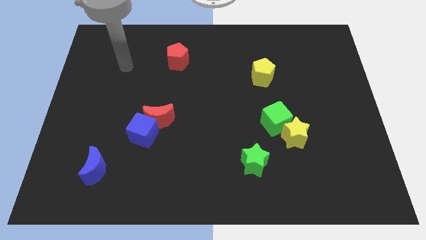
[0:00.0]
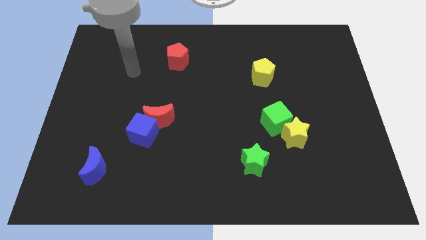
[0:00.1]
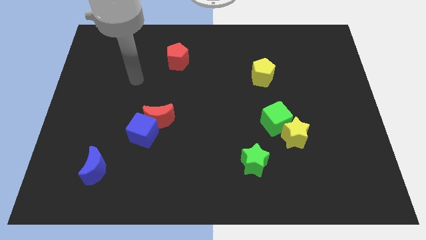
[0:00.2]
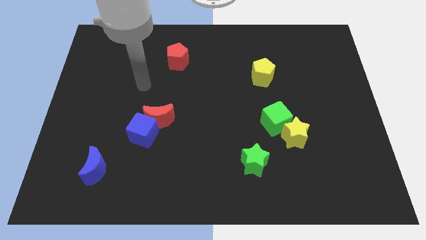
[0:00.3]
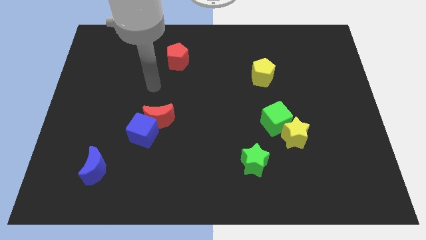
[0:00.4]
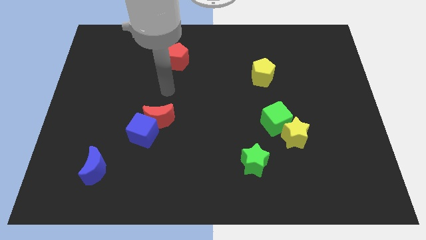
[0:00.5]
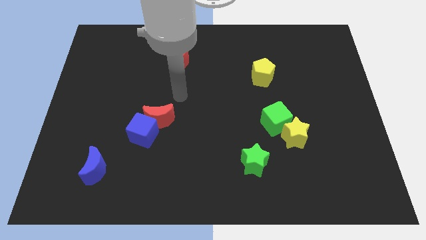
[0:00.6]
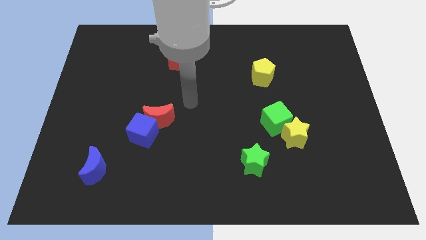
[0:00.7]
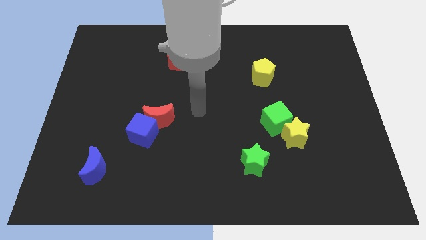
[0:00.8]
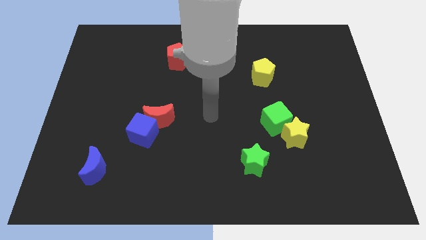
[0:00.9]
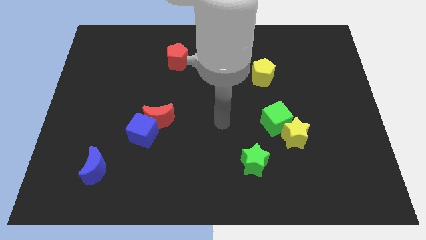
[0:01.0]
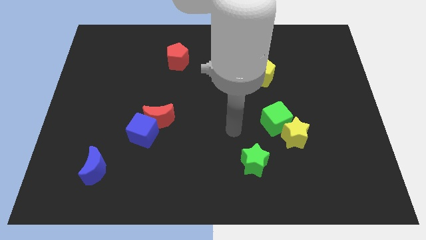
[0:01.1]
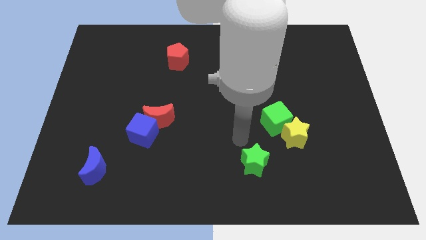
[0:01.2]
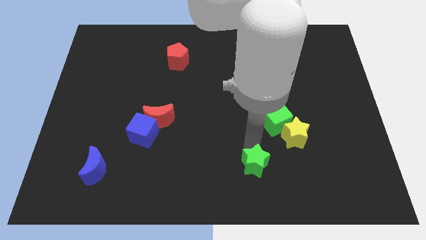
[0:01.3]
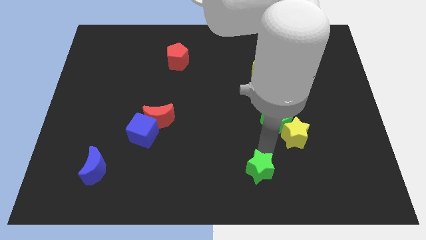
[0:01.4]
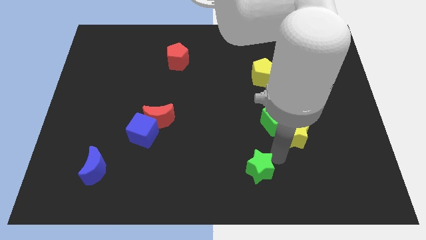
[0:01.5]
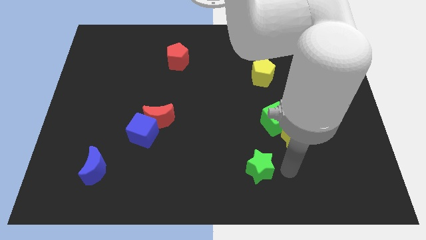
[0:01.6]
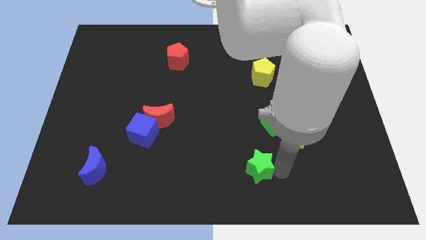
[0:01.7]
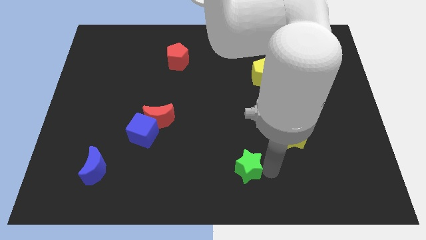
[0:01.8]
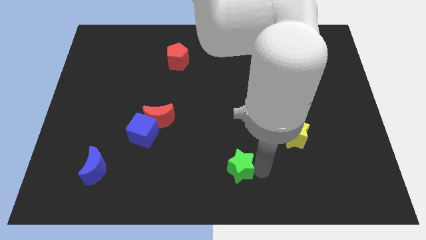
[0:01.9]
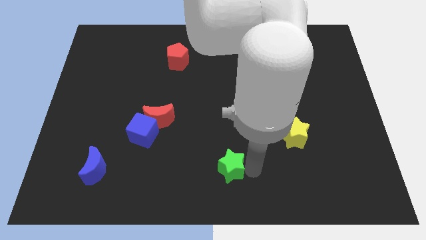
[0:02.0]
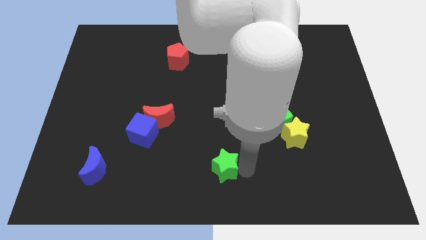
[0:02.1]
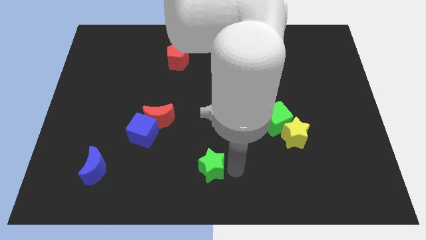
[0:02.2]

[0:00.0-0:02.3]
push the green star to the left a bit

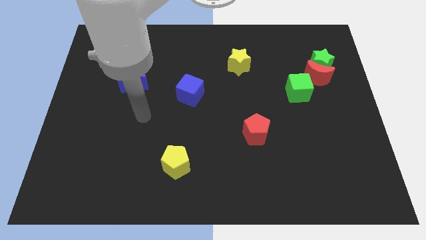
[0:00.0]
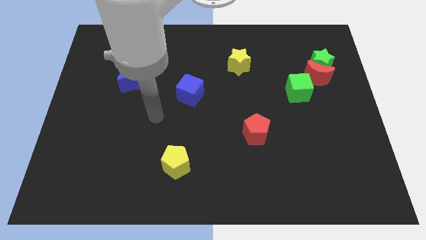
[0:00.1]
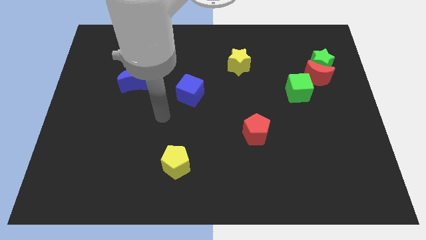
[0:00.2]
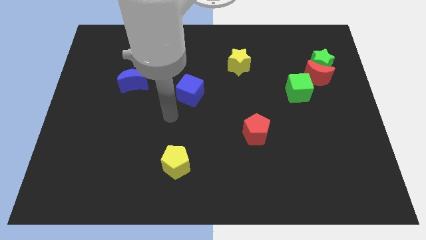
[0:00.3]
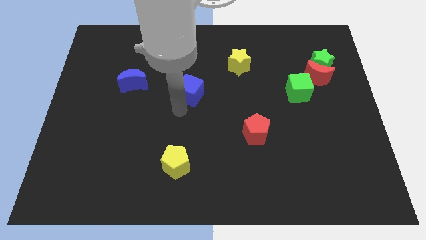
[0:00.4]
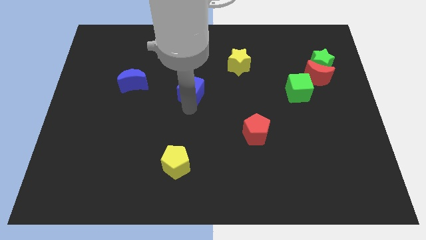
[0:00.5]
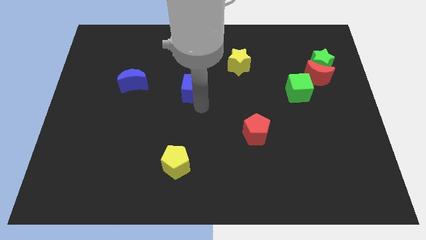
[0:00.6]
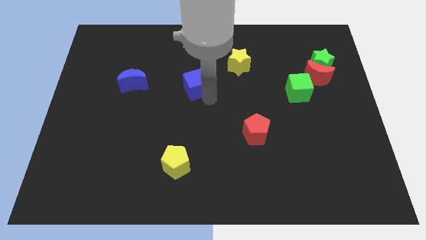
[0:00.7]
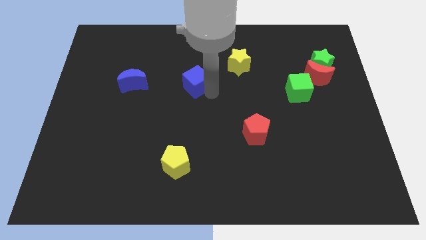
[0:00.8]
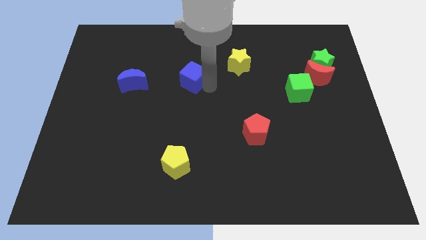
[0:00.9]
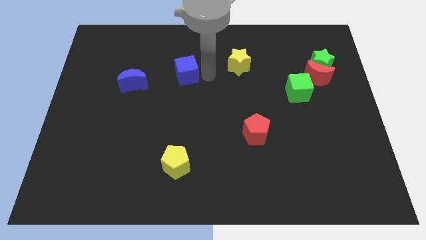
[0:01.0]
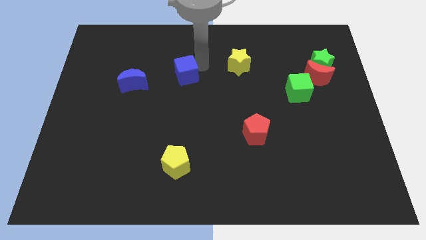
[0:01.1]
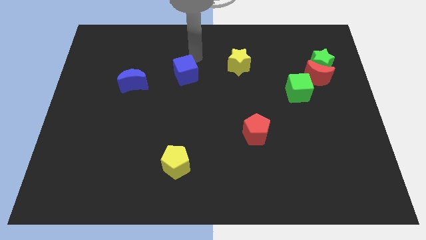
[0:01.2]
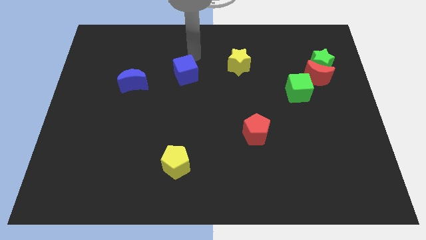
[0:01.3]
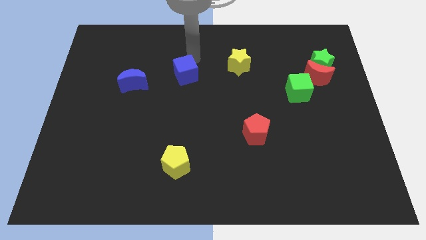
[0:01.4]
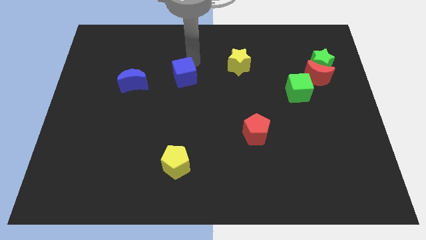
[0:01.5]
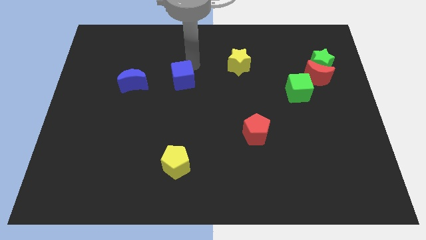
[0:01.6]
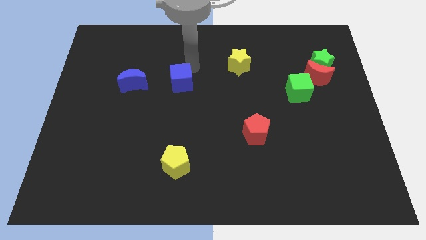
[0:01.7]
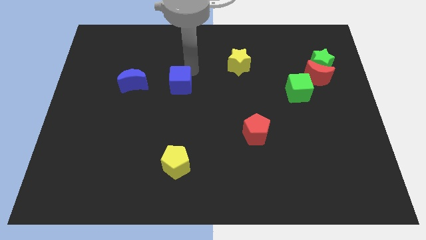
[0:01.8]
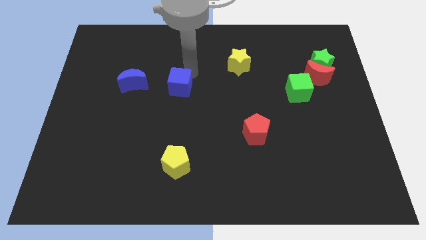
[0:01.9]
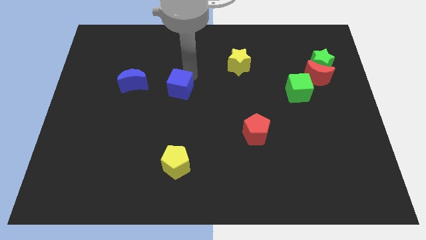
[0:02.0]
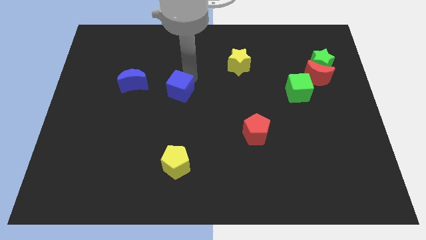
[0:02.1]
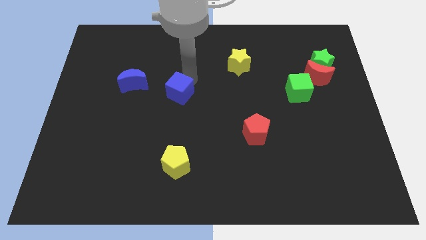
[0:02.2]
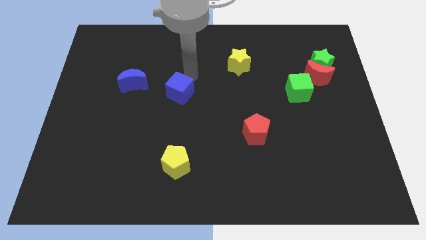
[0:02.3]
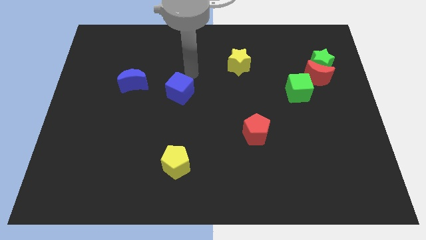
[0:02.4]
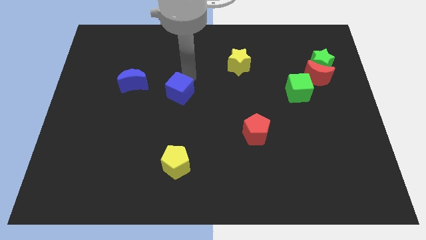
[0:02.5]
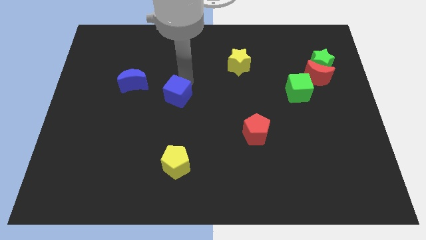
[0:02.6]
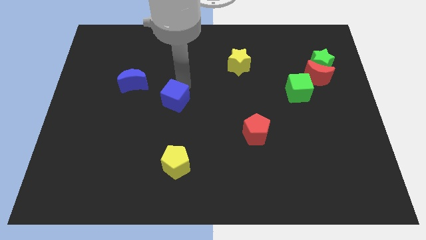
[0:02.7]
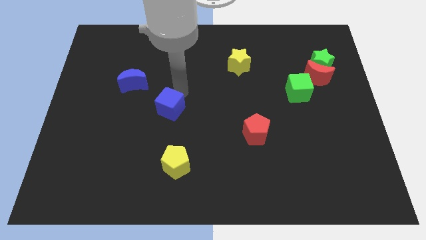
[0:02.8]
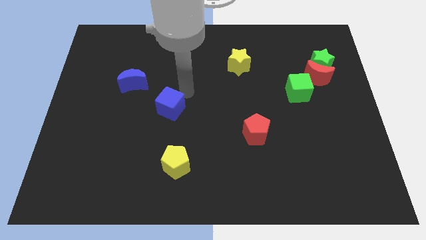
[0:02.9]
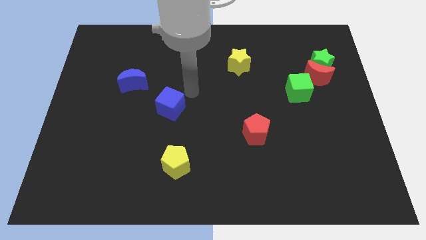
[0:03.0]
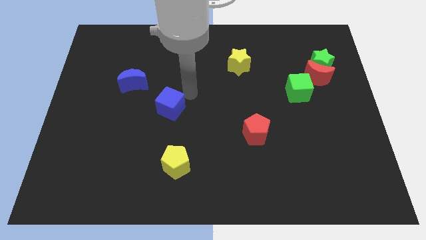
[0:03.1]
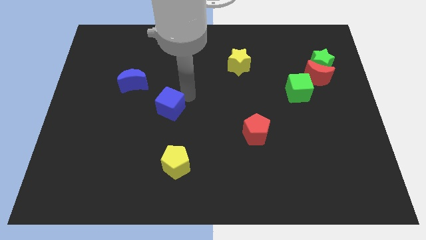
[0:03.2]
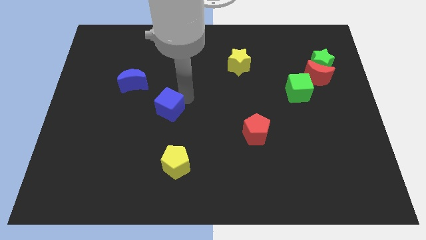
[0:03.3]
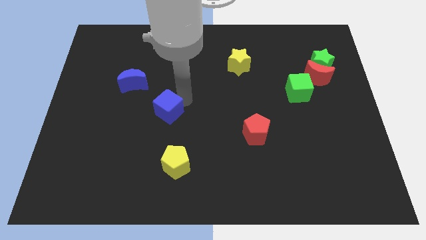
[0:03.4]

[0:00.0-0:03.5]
slightly move the blue cube diagonally downwards and left

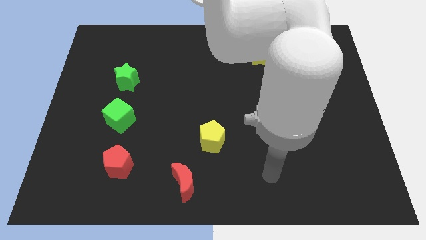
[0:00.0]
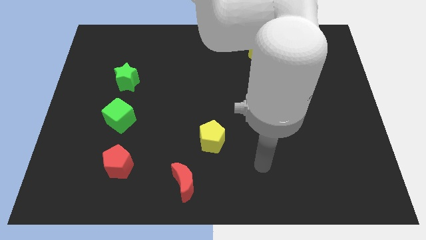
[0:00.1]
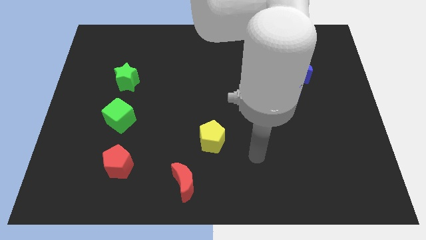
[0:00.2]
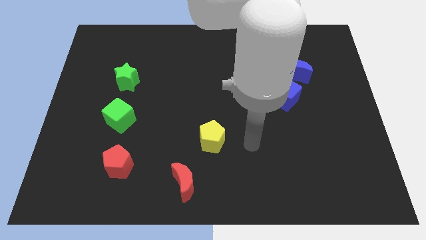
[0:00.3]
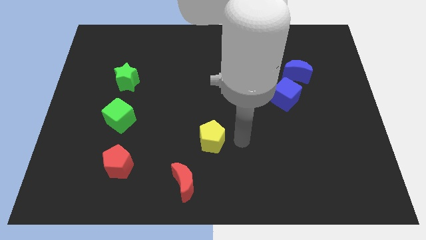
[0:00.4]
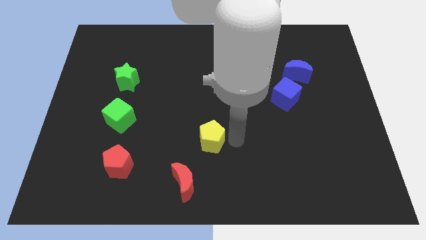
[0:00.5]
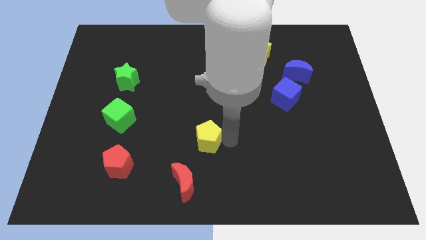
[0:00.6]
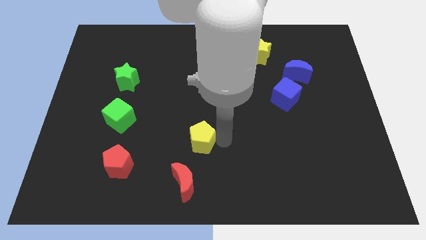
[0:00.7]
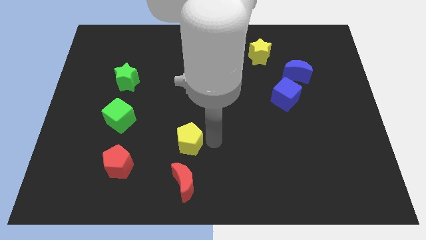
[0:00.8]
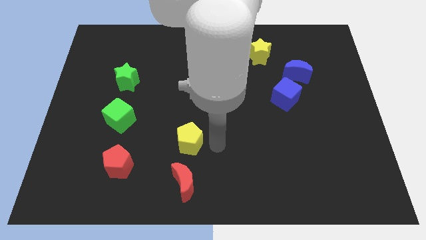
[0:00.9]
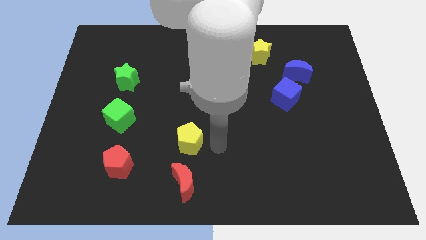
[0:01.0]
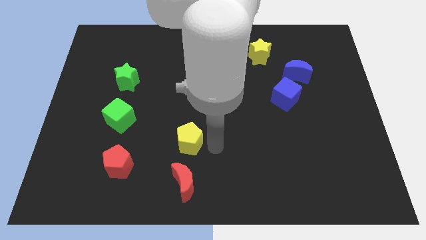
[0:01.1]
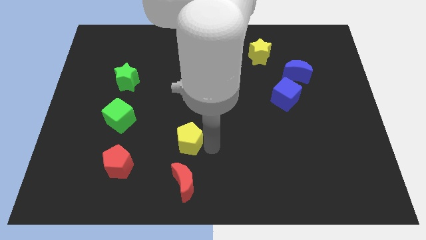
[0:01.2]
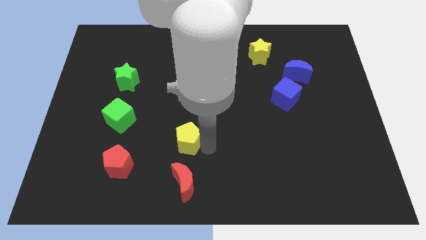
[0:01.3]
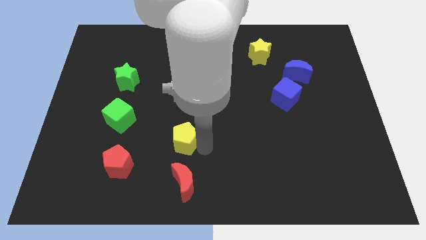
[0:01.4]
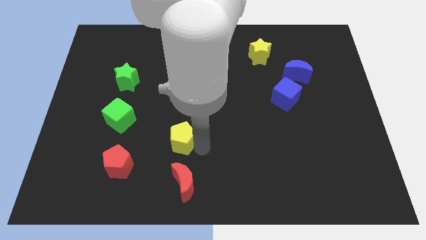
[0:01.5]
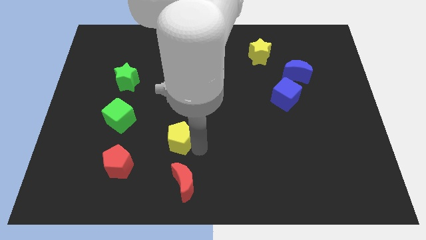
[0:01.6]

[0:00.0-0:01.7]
slightly push the yellow pentagon left

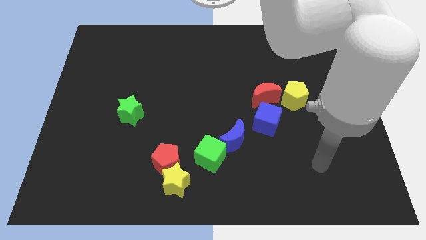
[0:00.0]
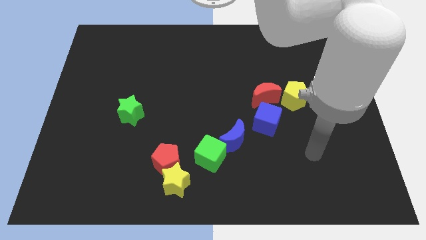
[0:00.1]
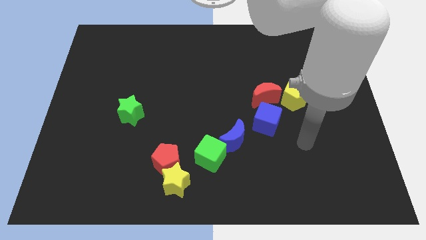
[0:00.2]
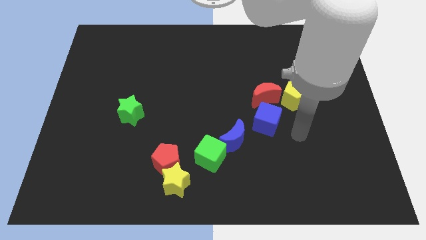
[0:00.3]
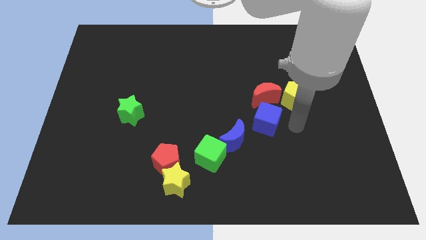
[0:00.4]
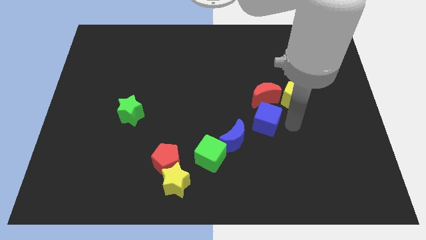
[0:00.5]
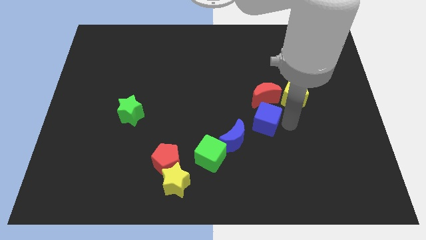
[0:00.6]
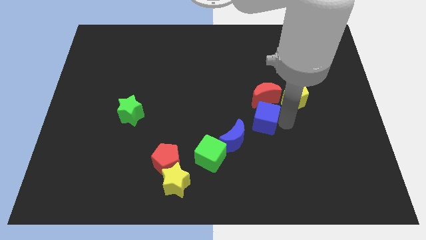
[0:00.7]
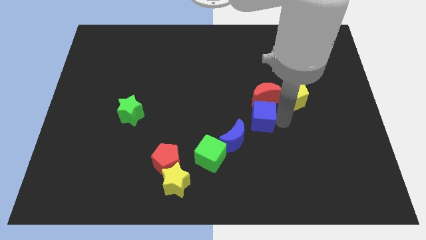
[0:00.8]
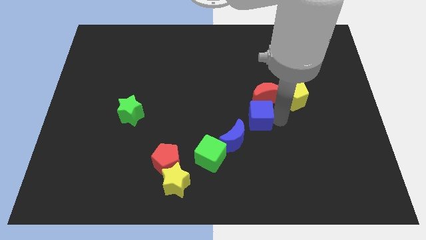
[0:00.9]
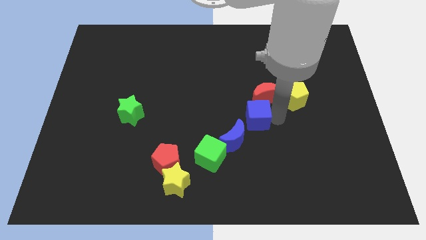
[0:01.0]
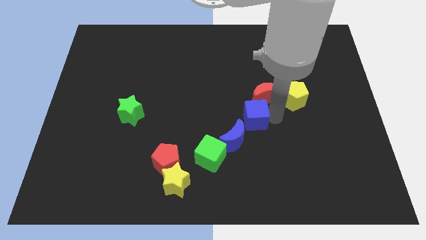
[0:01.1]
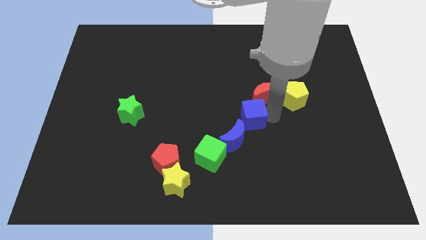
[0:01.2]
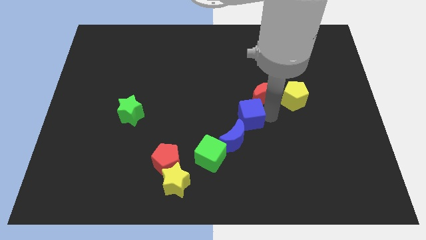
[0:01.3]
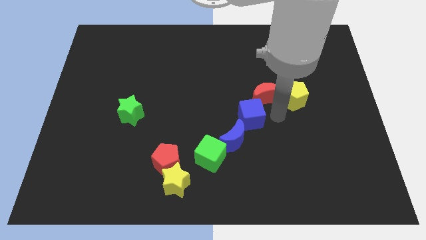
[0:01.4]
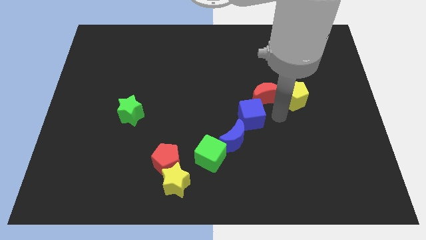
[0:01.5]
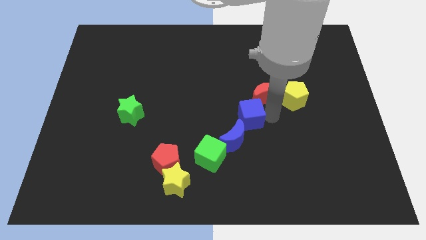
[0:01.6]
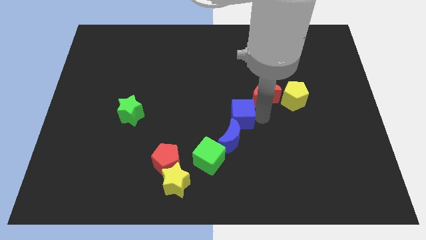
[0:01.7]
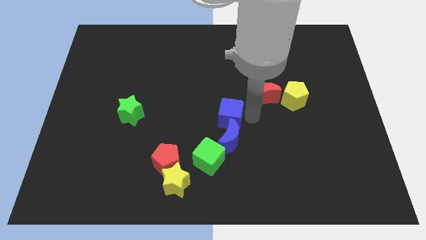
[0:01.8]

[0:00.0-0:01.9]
move the blue cube left a little bit
